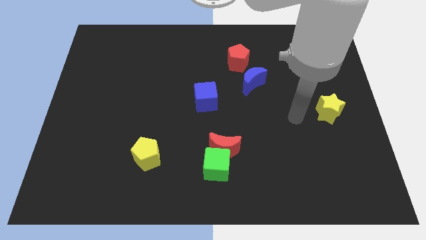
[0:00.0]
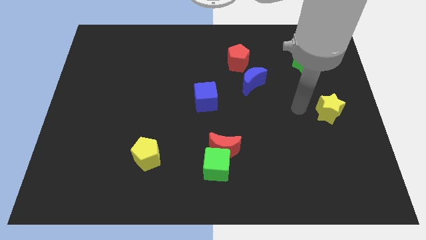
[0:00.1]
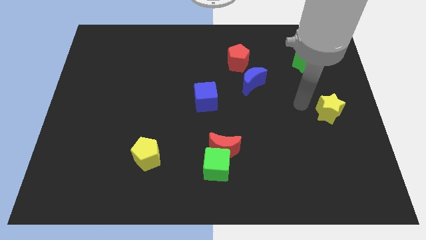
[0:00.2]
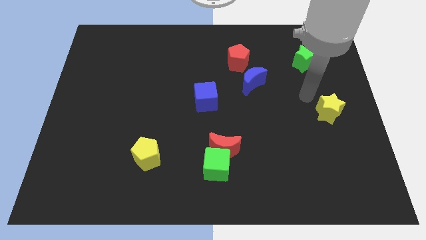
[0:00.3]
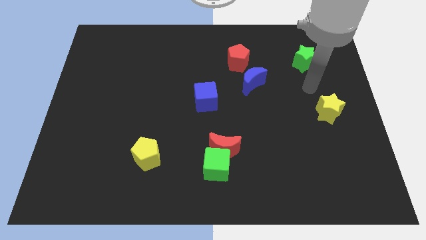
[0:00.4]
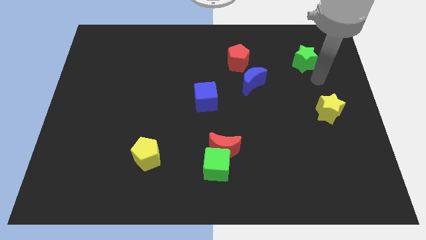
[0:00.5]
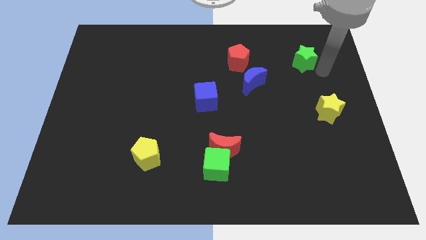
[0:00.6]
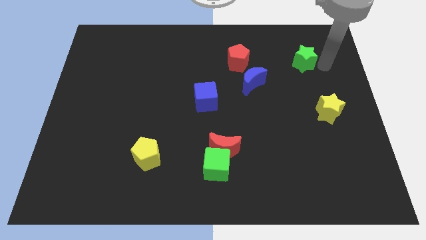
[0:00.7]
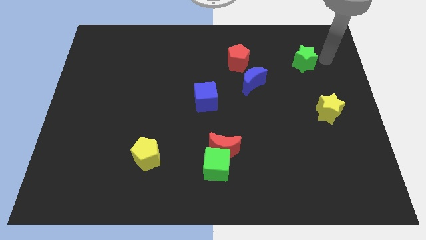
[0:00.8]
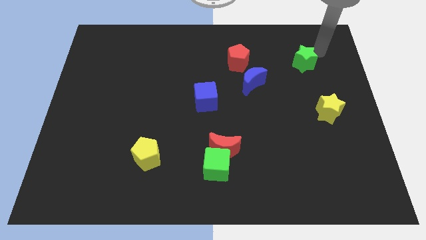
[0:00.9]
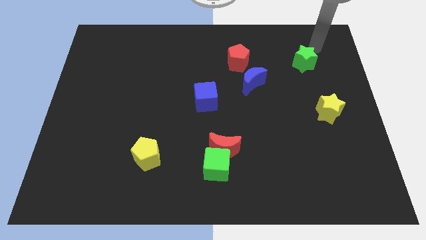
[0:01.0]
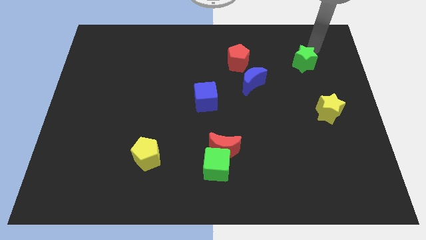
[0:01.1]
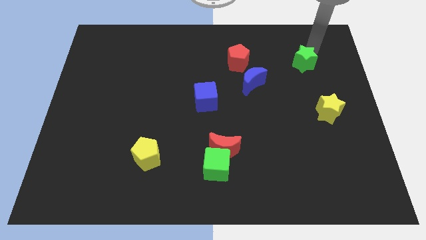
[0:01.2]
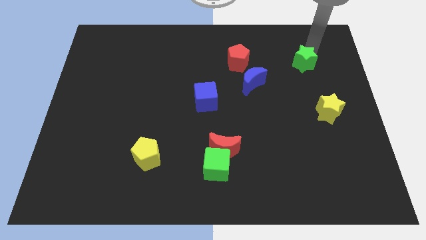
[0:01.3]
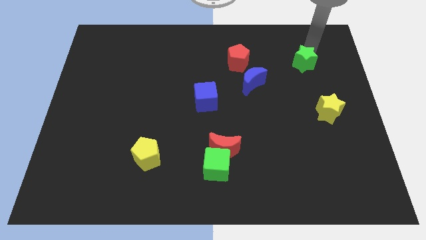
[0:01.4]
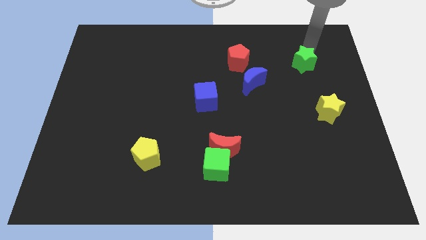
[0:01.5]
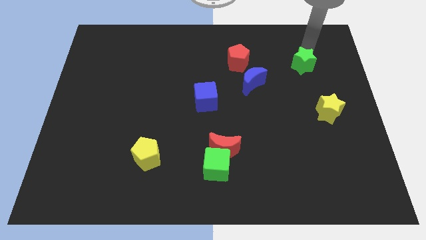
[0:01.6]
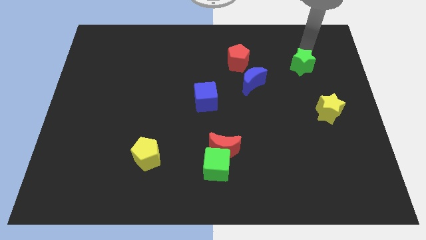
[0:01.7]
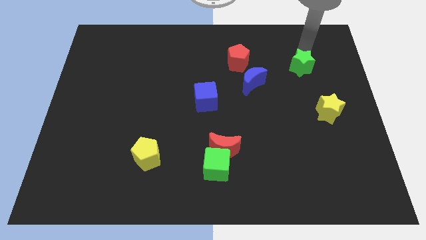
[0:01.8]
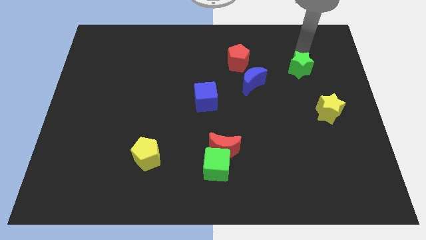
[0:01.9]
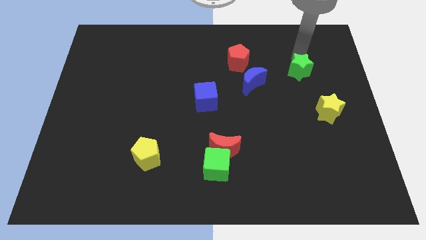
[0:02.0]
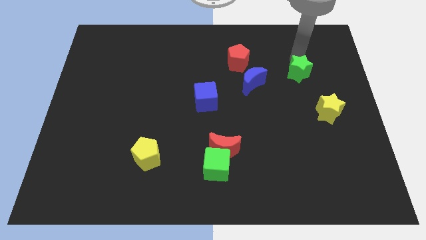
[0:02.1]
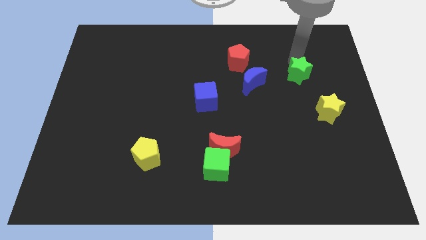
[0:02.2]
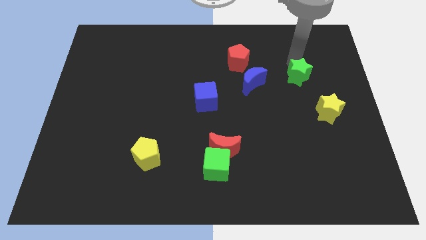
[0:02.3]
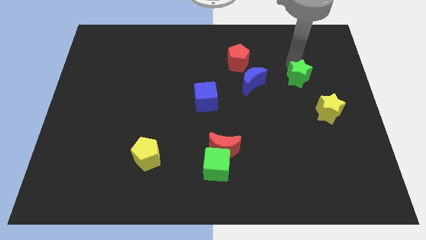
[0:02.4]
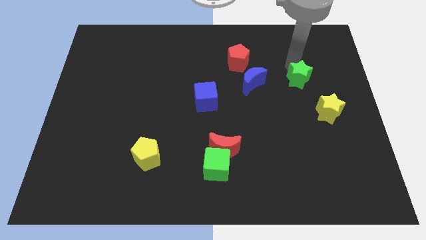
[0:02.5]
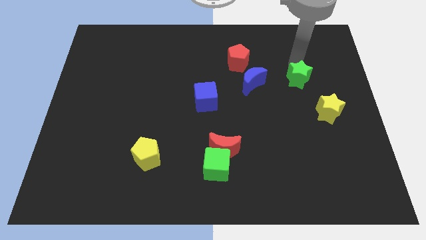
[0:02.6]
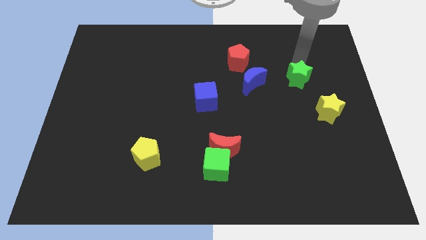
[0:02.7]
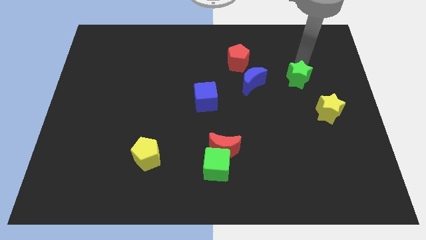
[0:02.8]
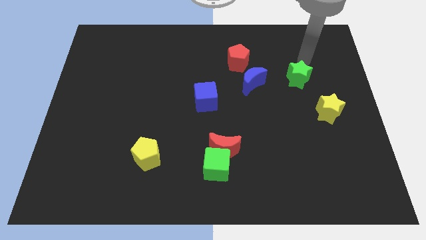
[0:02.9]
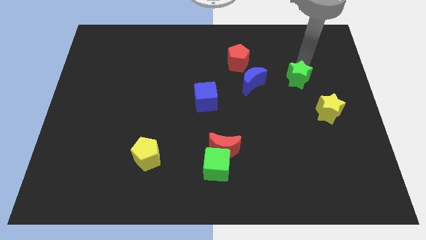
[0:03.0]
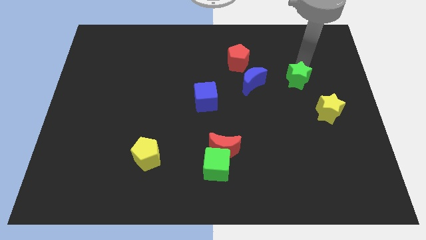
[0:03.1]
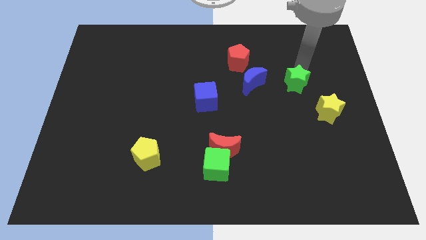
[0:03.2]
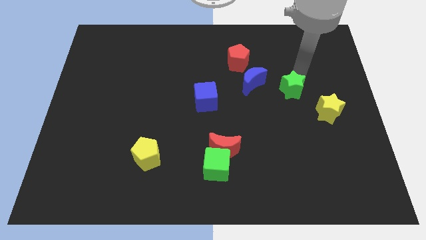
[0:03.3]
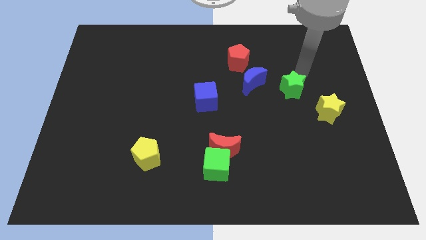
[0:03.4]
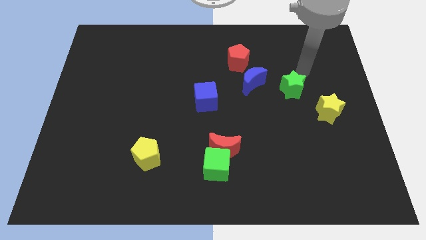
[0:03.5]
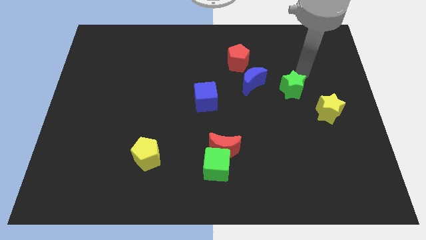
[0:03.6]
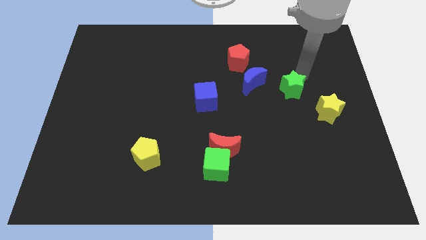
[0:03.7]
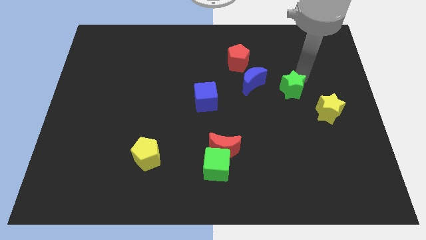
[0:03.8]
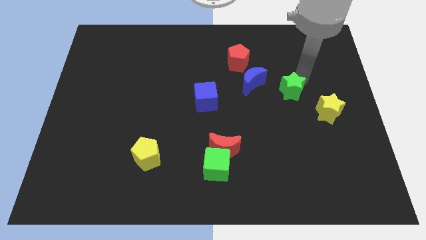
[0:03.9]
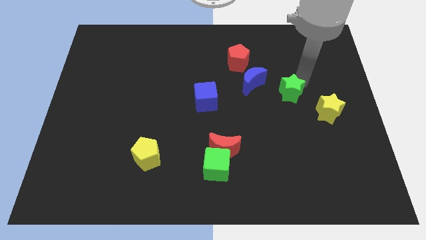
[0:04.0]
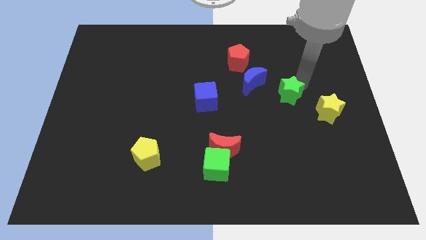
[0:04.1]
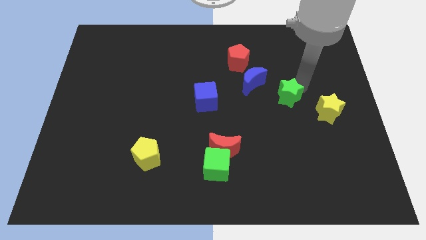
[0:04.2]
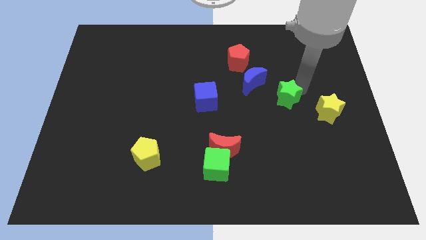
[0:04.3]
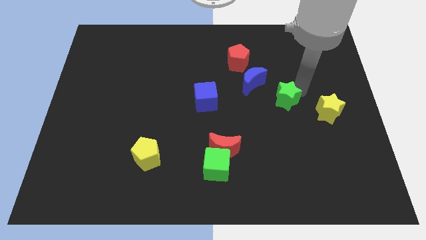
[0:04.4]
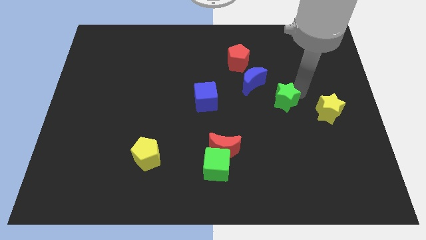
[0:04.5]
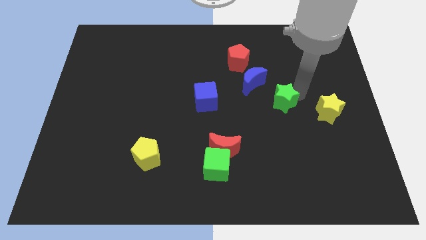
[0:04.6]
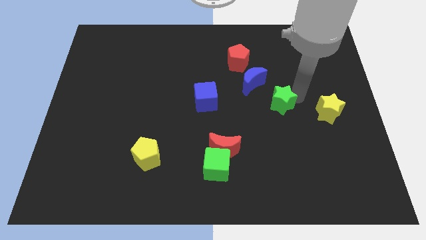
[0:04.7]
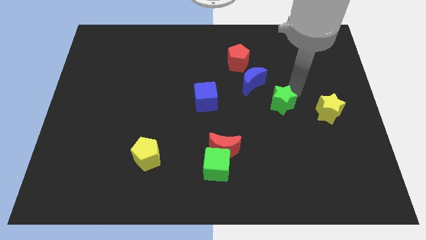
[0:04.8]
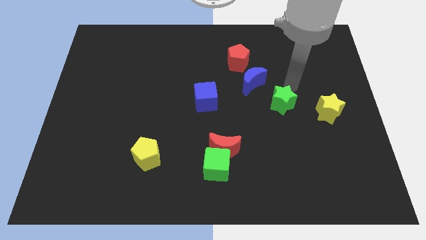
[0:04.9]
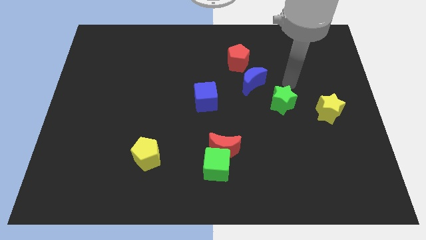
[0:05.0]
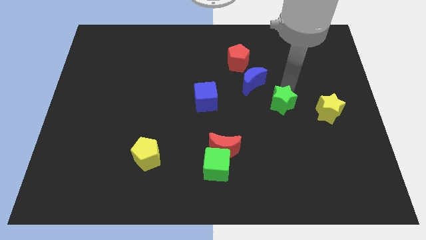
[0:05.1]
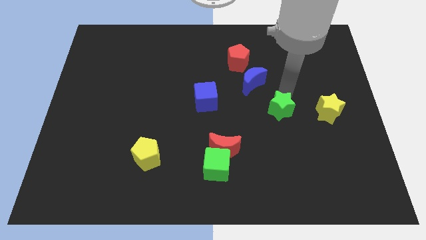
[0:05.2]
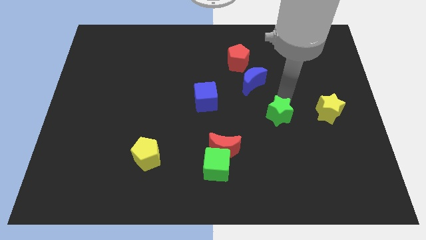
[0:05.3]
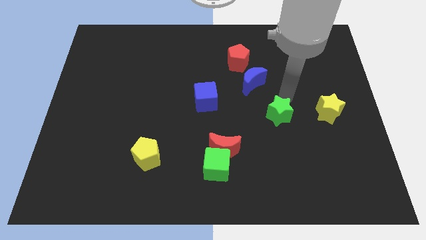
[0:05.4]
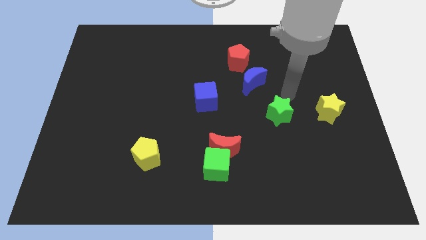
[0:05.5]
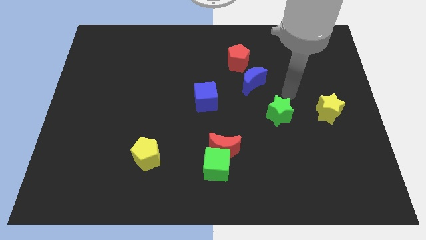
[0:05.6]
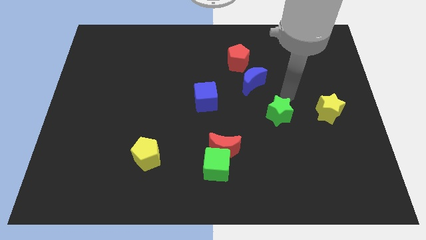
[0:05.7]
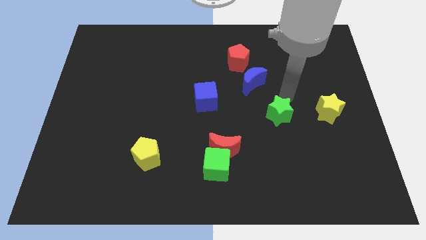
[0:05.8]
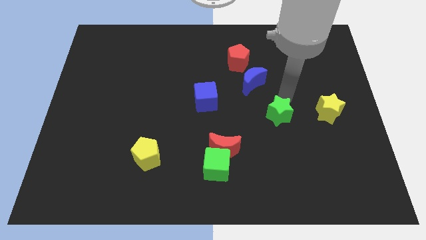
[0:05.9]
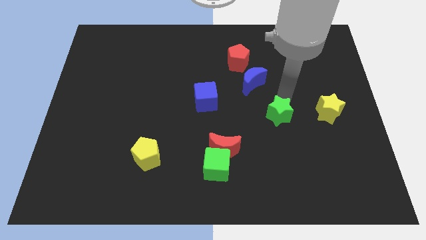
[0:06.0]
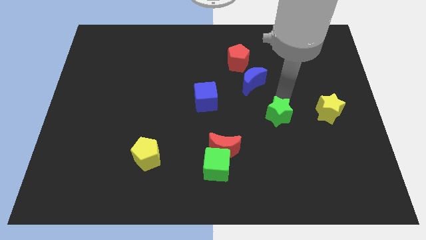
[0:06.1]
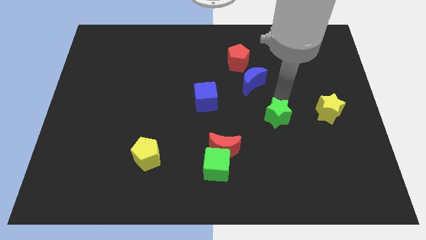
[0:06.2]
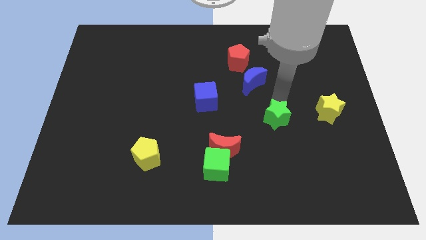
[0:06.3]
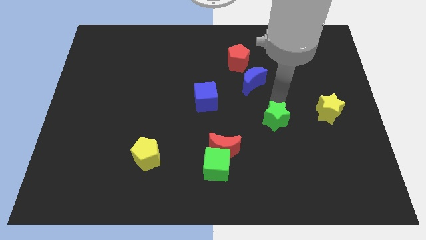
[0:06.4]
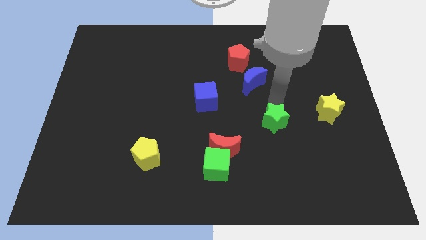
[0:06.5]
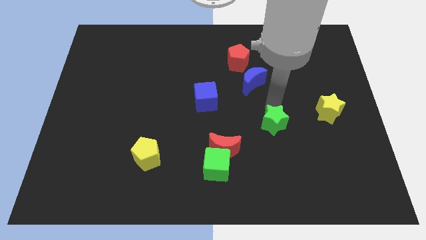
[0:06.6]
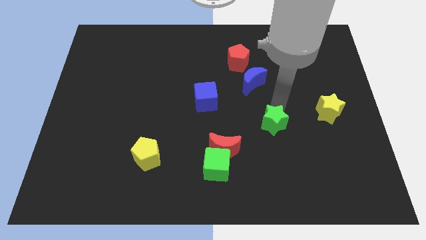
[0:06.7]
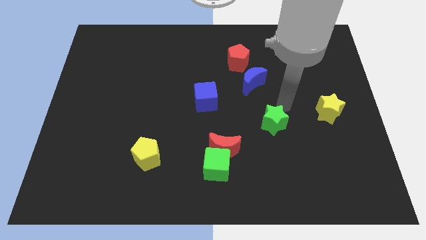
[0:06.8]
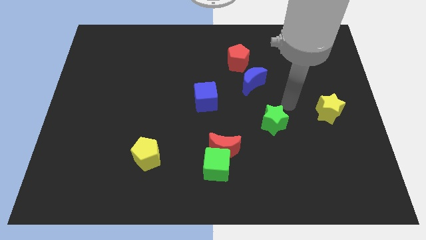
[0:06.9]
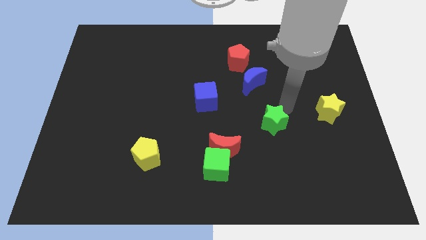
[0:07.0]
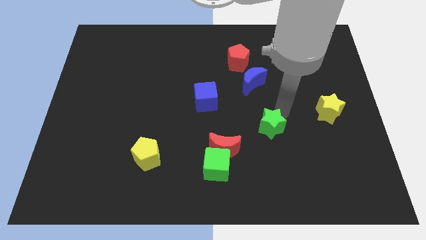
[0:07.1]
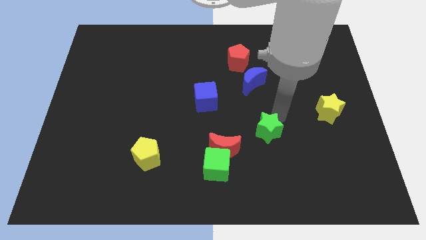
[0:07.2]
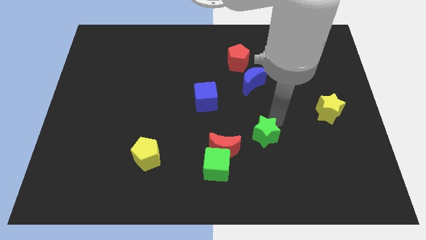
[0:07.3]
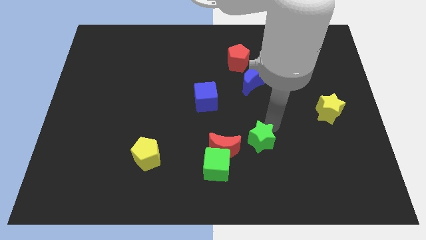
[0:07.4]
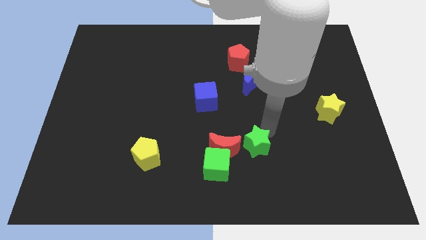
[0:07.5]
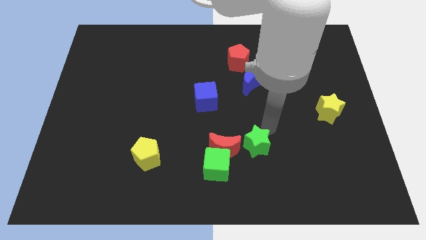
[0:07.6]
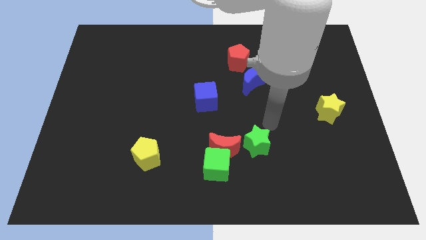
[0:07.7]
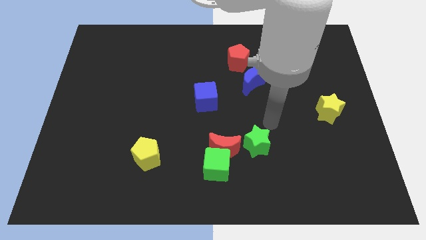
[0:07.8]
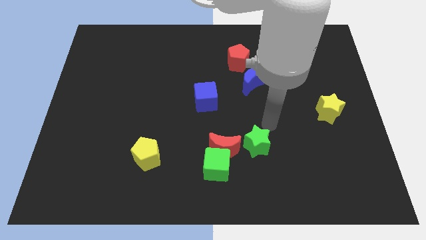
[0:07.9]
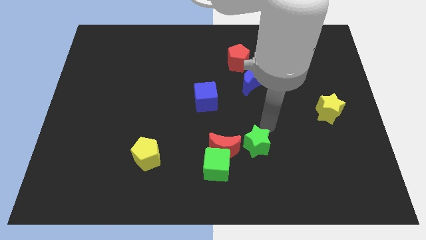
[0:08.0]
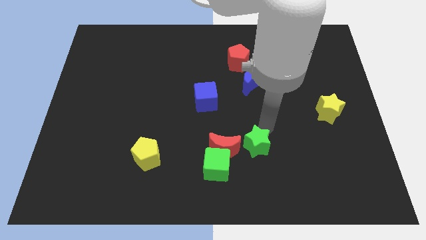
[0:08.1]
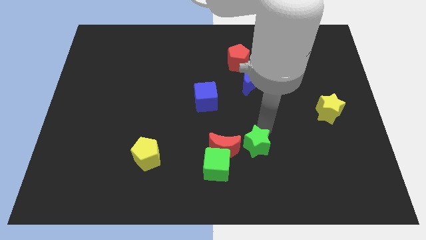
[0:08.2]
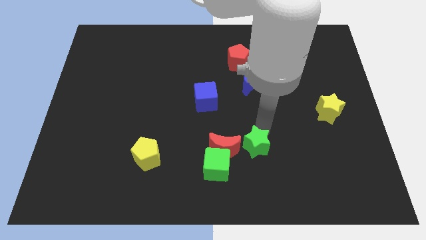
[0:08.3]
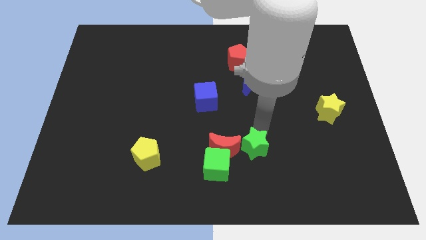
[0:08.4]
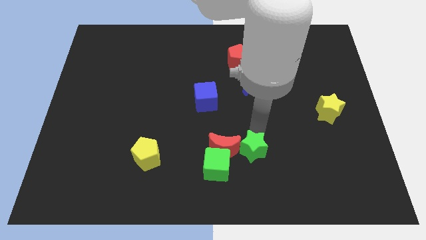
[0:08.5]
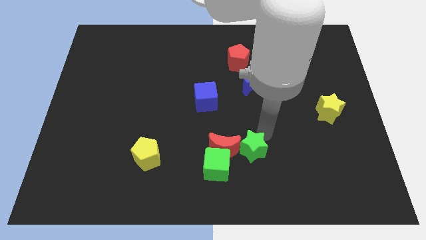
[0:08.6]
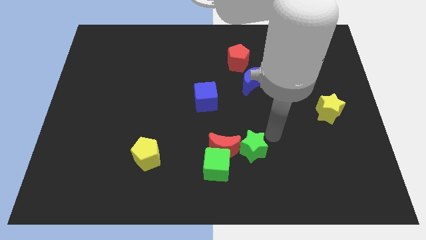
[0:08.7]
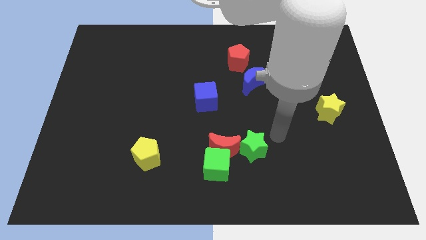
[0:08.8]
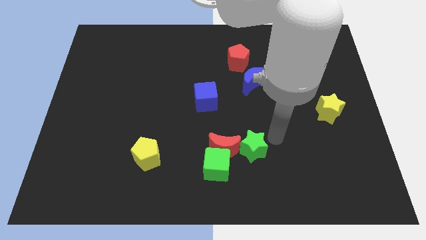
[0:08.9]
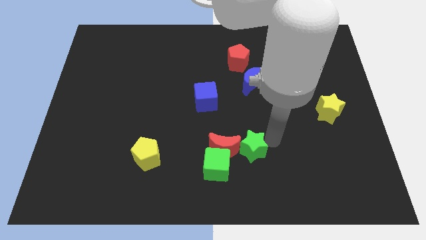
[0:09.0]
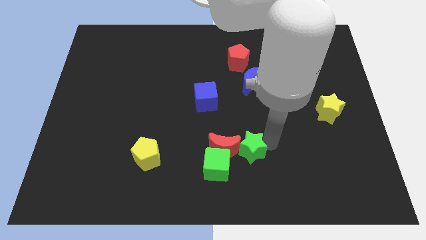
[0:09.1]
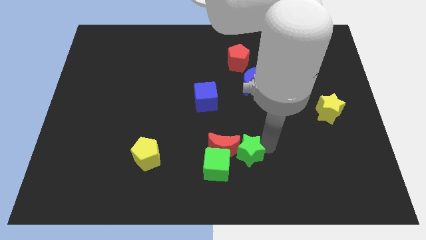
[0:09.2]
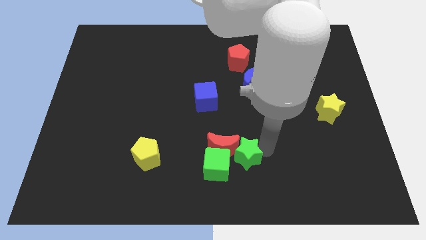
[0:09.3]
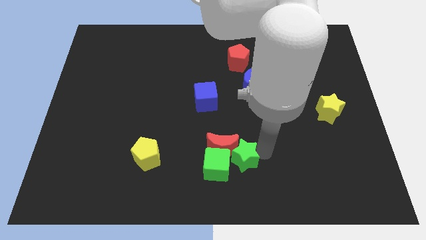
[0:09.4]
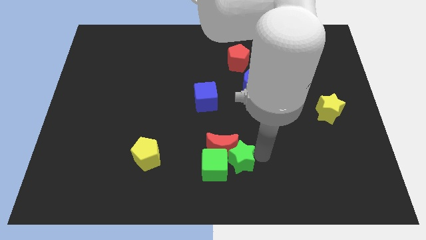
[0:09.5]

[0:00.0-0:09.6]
push the green star close to the green cube
